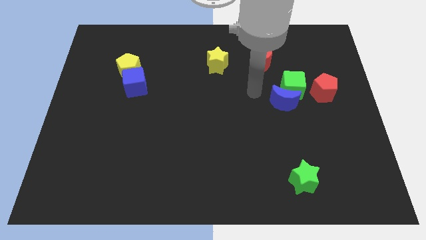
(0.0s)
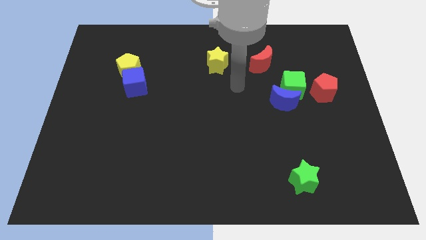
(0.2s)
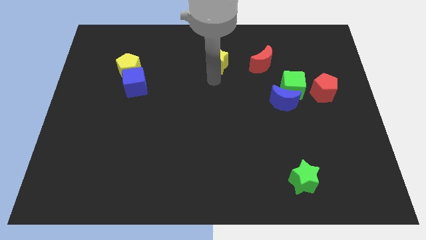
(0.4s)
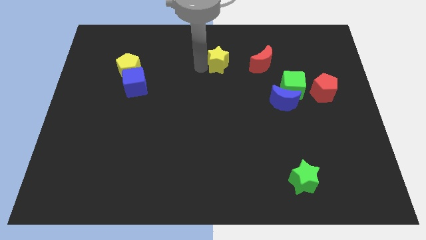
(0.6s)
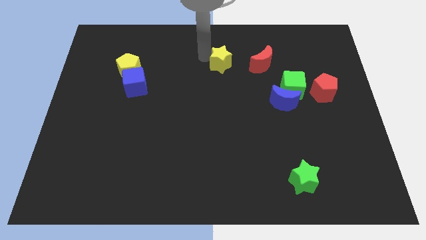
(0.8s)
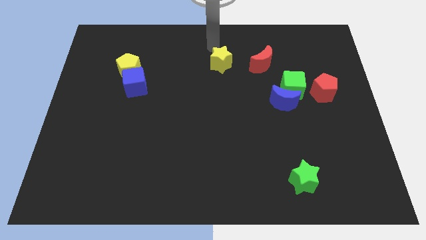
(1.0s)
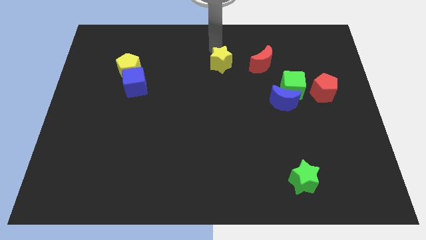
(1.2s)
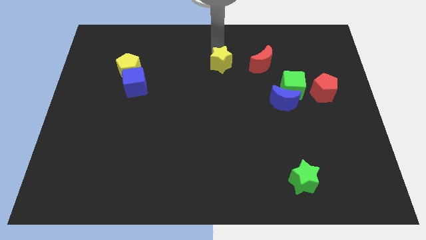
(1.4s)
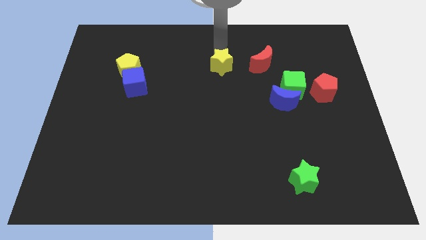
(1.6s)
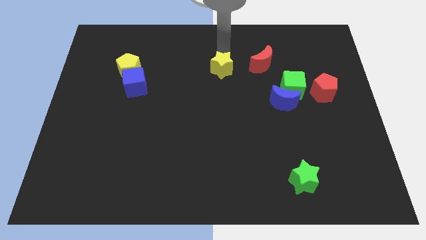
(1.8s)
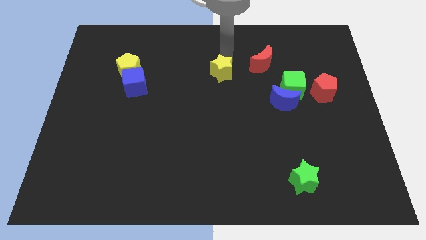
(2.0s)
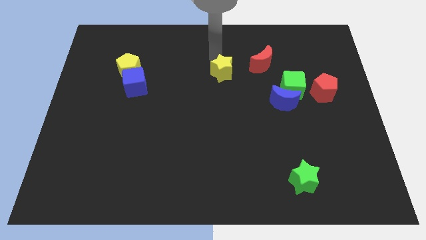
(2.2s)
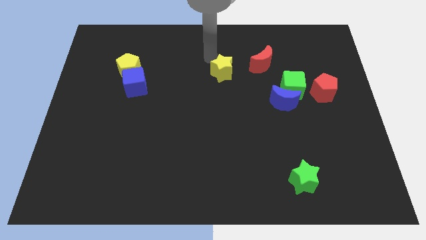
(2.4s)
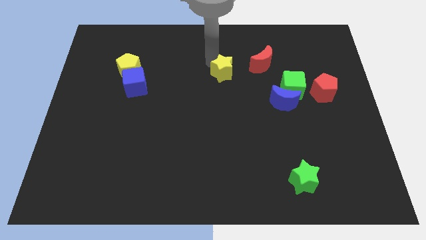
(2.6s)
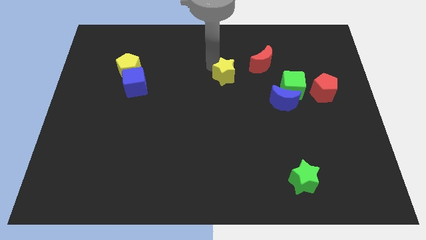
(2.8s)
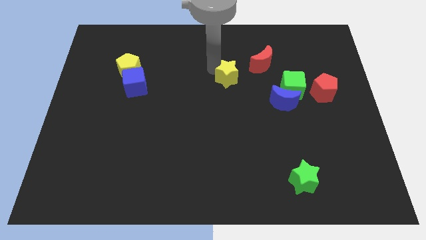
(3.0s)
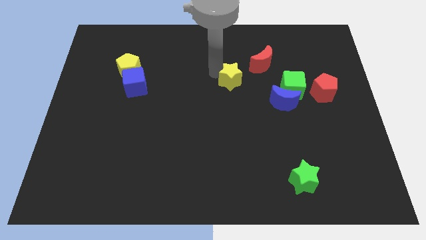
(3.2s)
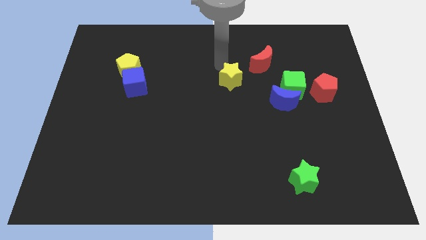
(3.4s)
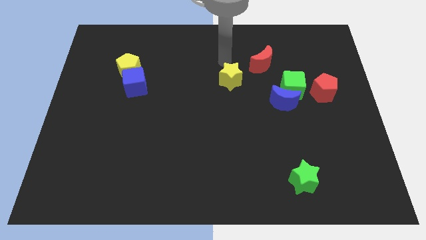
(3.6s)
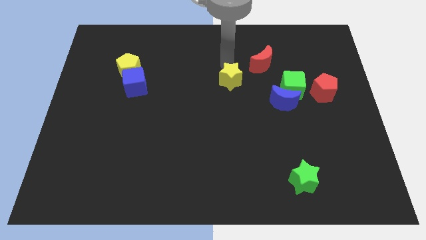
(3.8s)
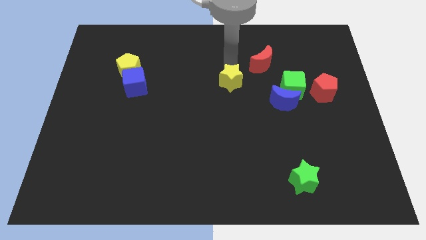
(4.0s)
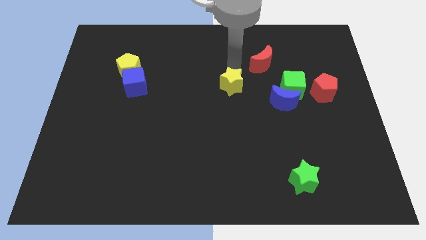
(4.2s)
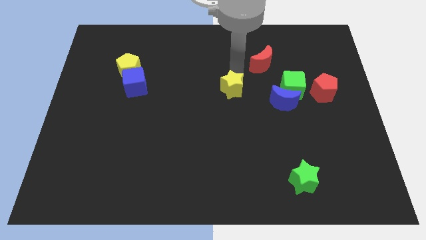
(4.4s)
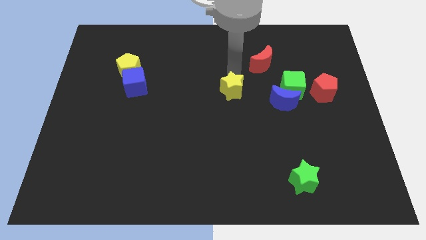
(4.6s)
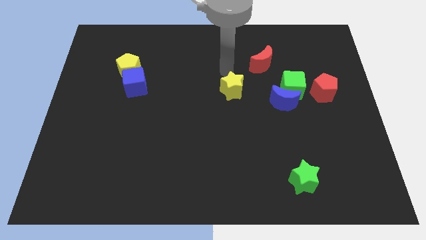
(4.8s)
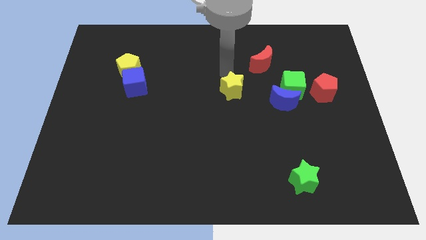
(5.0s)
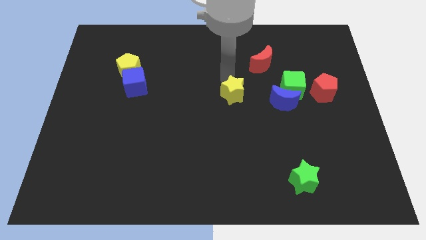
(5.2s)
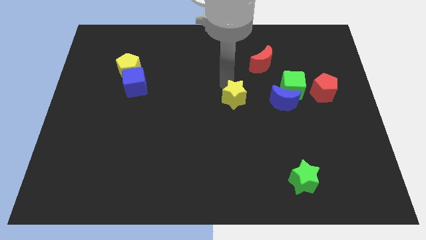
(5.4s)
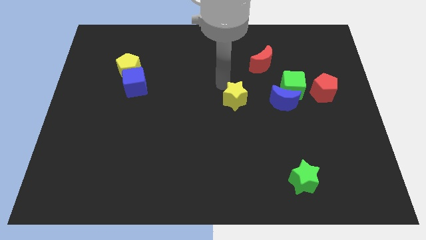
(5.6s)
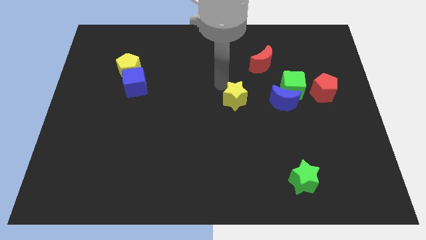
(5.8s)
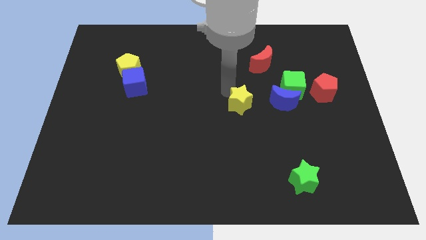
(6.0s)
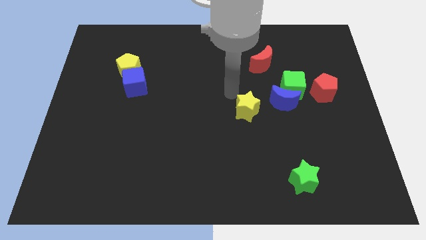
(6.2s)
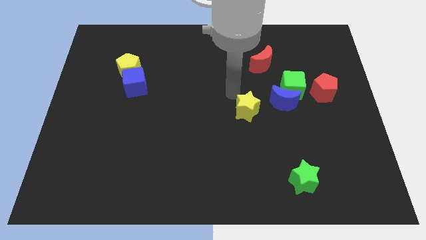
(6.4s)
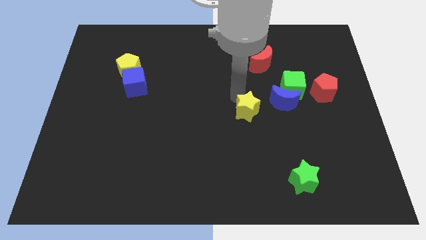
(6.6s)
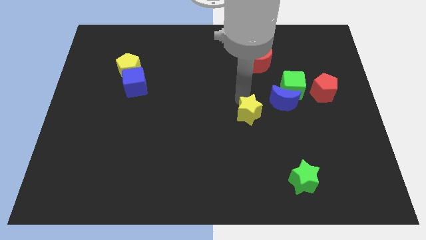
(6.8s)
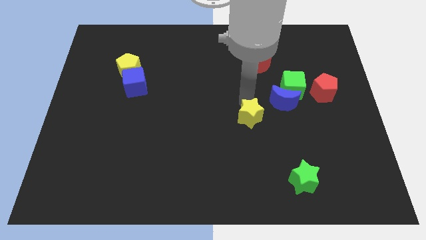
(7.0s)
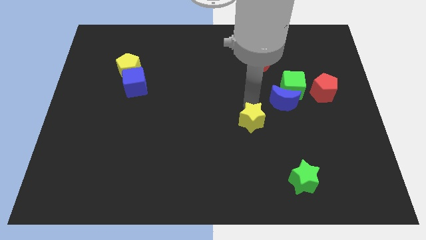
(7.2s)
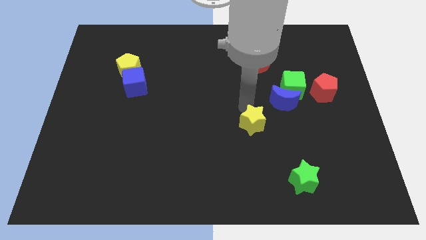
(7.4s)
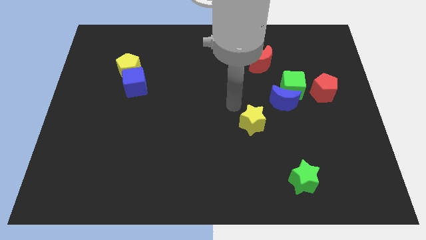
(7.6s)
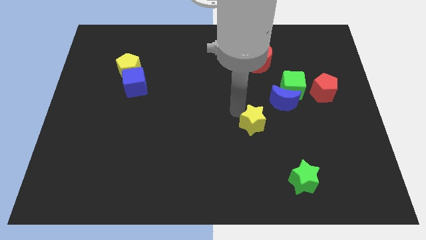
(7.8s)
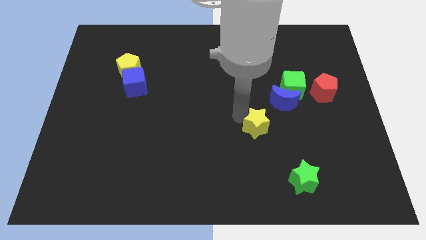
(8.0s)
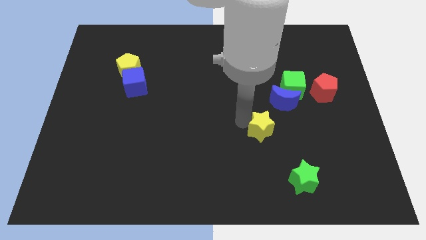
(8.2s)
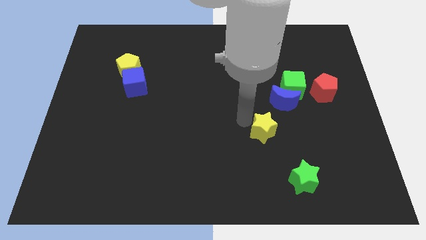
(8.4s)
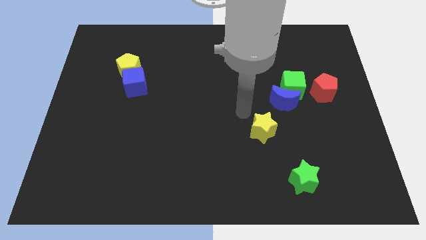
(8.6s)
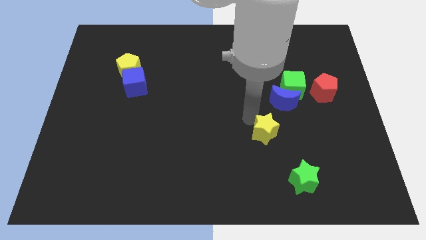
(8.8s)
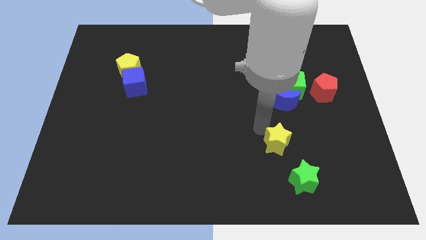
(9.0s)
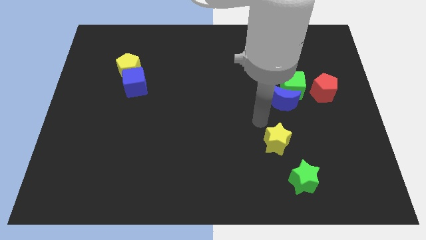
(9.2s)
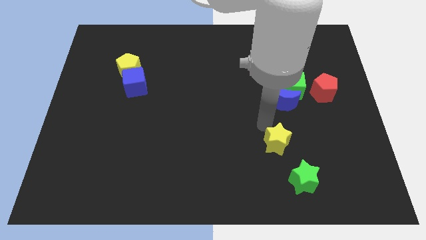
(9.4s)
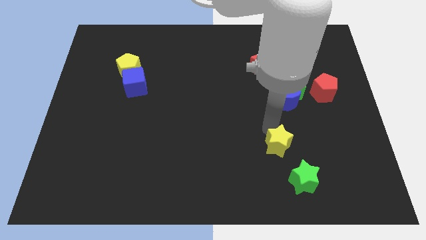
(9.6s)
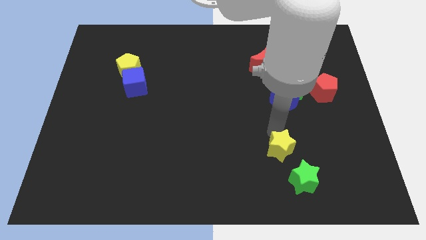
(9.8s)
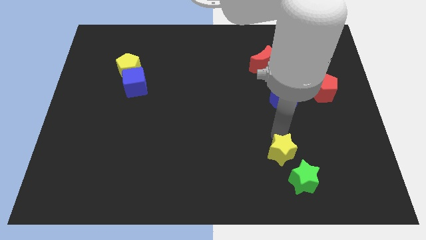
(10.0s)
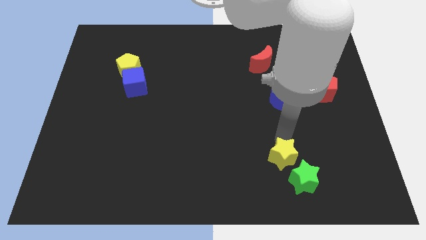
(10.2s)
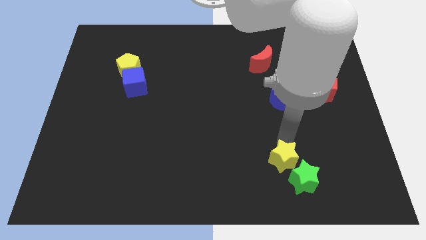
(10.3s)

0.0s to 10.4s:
move the yellow star close to the green star
